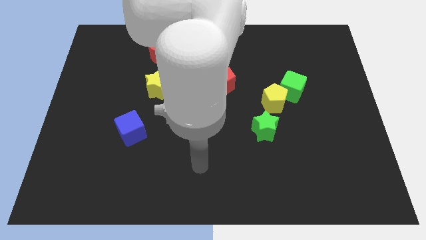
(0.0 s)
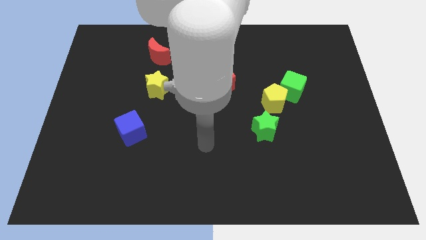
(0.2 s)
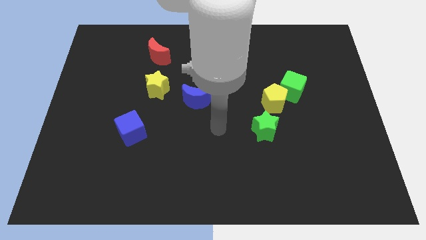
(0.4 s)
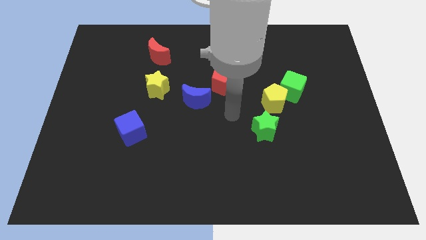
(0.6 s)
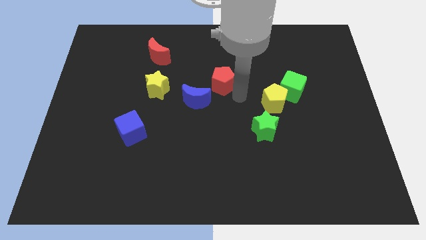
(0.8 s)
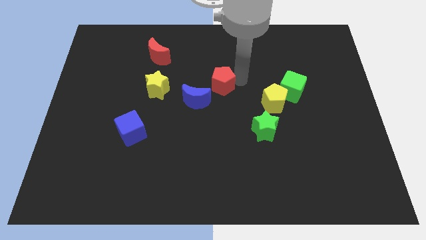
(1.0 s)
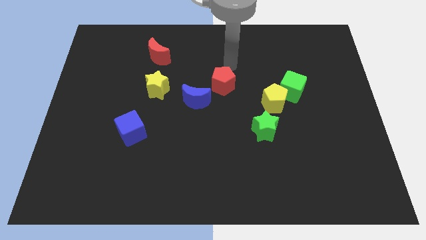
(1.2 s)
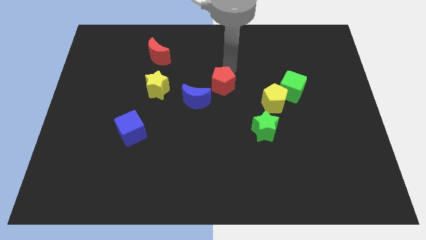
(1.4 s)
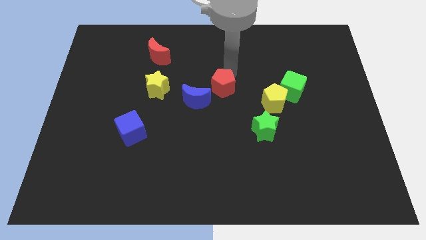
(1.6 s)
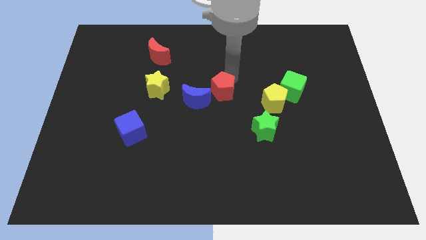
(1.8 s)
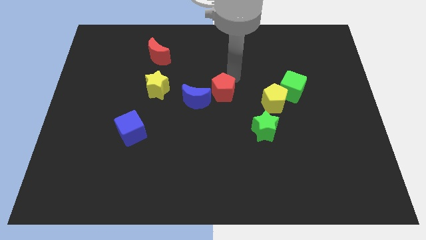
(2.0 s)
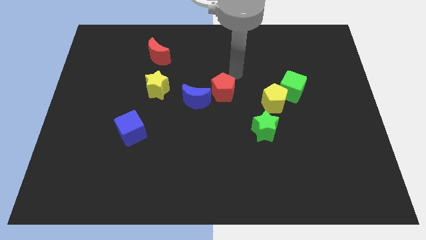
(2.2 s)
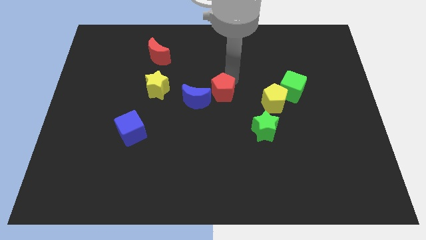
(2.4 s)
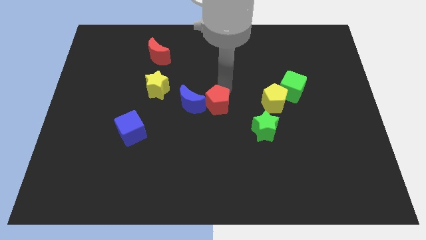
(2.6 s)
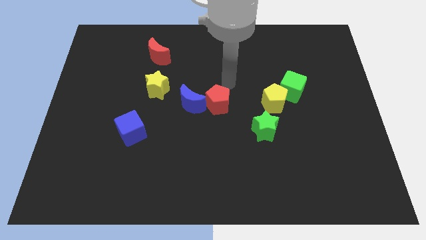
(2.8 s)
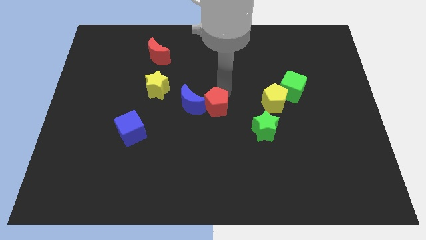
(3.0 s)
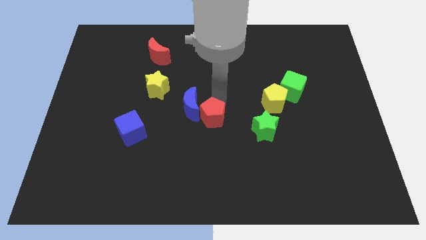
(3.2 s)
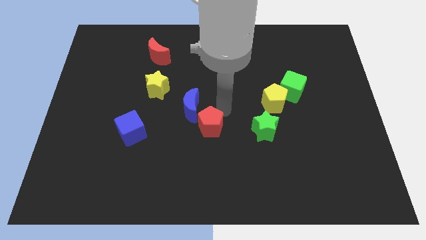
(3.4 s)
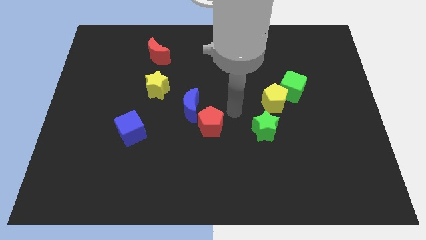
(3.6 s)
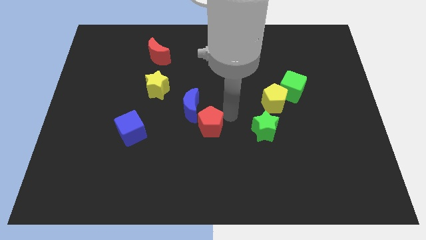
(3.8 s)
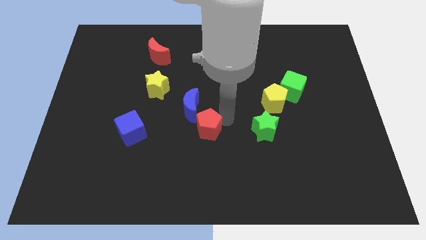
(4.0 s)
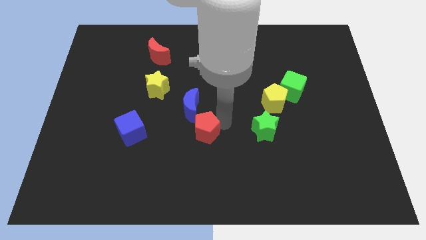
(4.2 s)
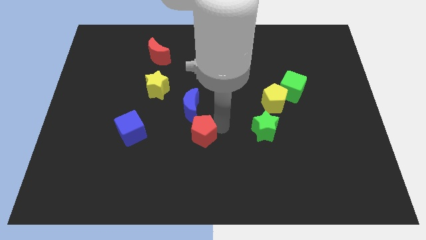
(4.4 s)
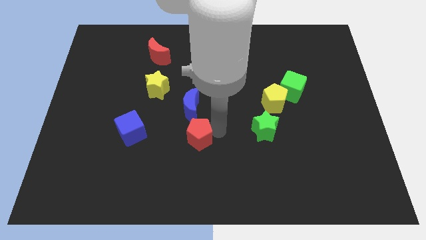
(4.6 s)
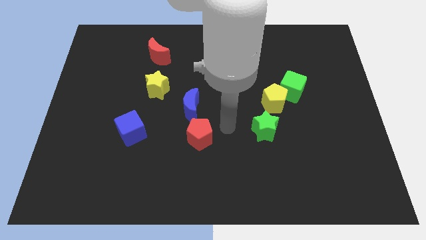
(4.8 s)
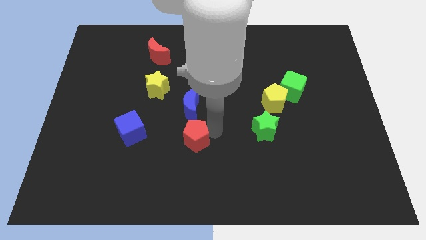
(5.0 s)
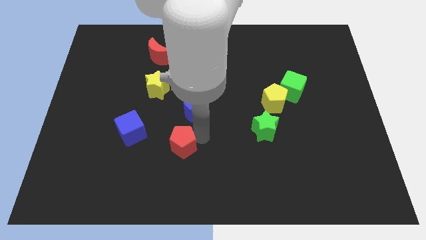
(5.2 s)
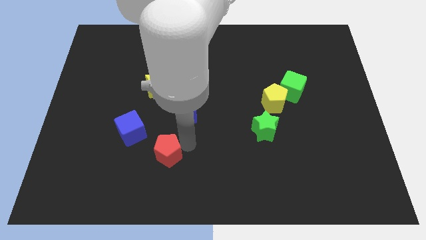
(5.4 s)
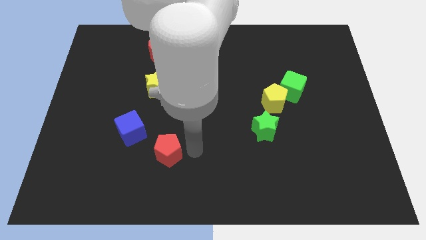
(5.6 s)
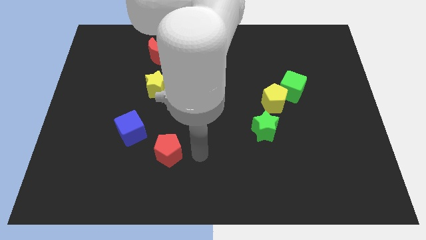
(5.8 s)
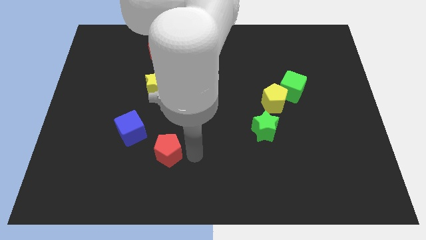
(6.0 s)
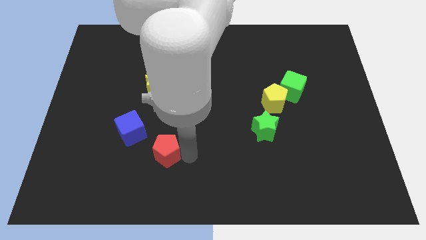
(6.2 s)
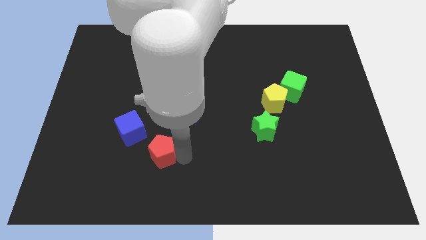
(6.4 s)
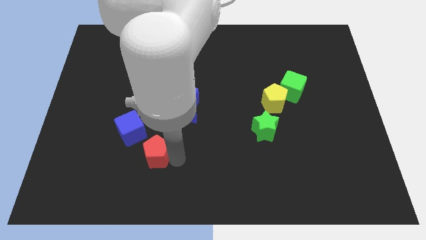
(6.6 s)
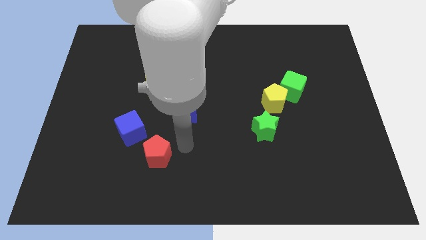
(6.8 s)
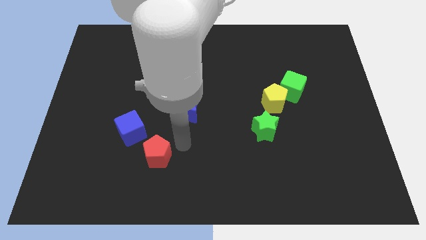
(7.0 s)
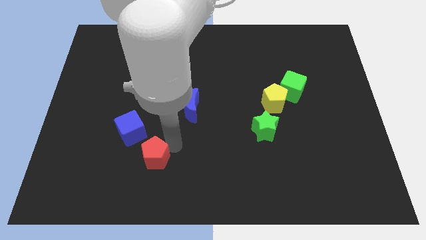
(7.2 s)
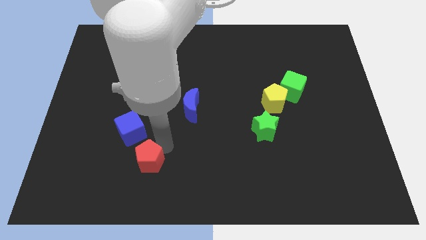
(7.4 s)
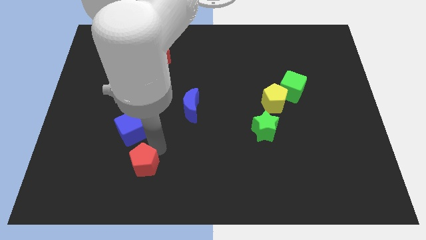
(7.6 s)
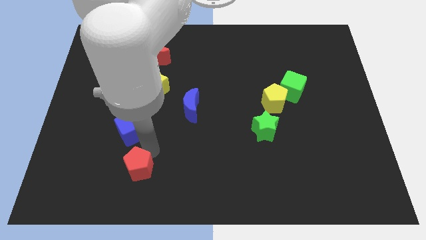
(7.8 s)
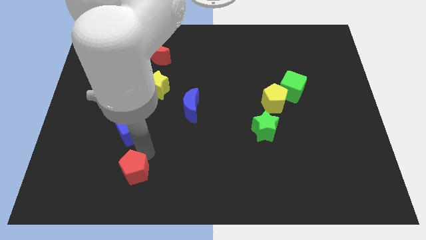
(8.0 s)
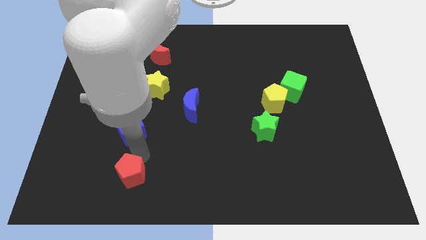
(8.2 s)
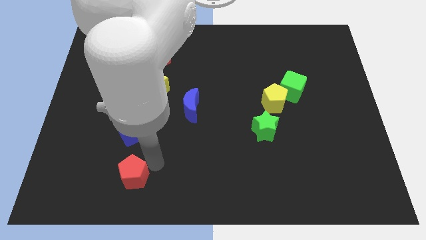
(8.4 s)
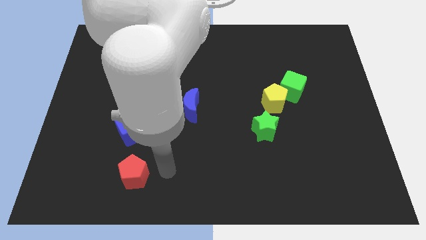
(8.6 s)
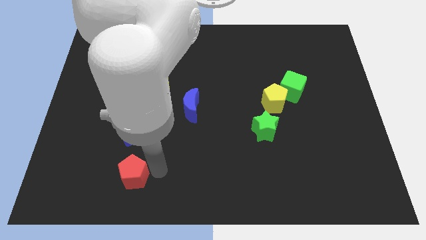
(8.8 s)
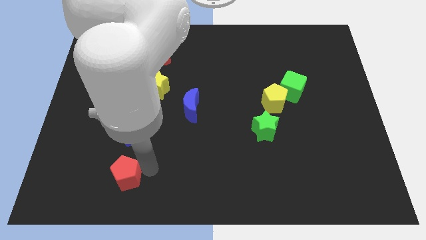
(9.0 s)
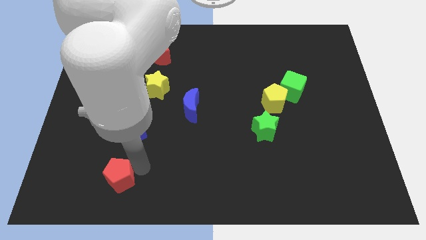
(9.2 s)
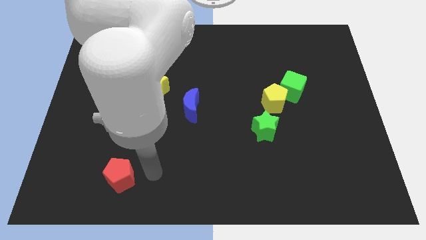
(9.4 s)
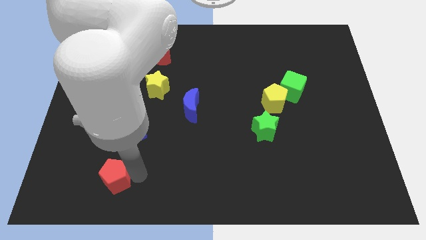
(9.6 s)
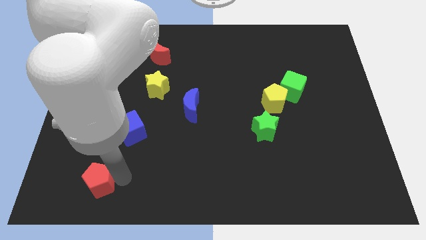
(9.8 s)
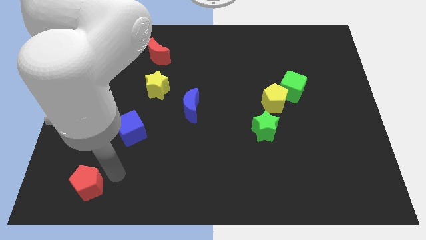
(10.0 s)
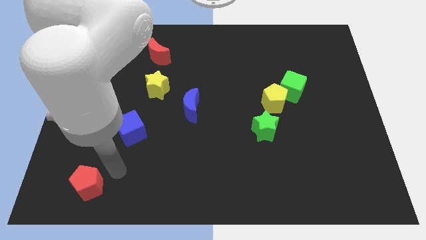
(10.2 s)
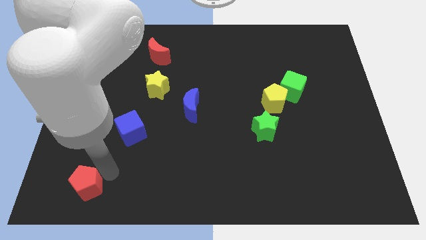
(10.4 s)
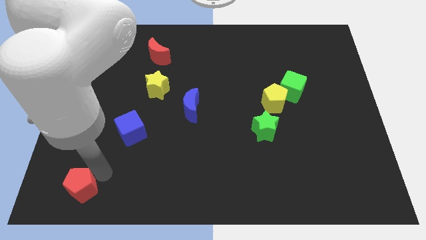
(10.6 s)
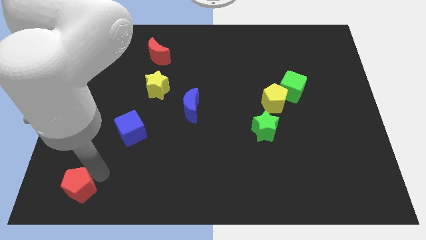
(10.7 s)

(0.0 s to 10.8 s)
move the red pentagon to the bottom left corner

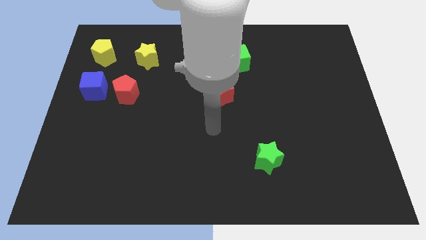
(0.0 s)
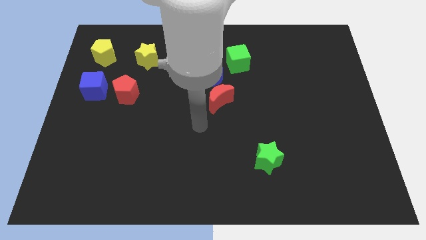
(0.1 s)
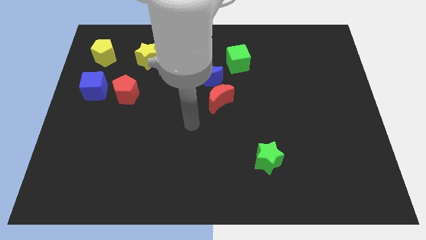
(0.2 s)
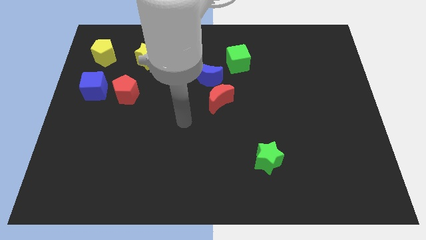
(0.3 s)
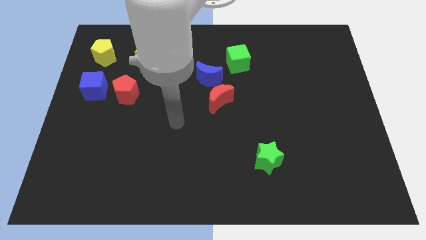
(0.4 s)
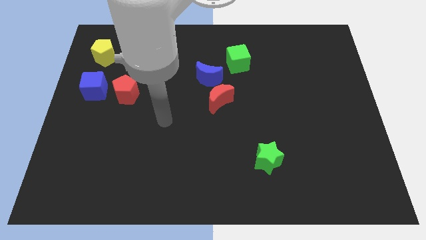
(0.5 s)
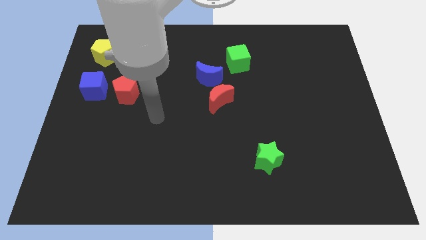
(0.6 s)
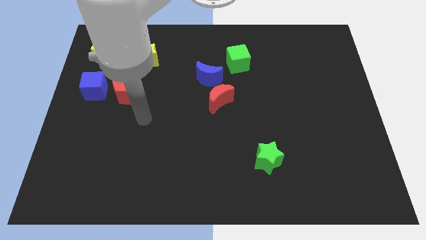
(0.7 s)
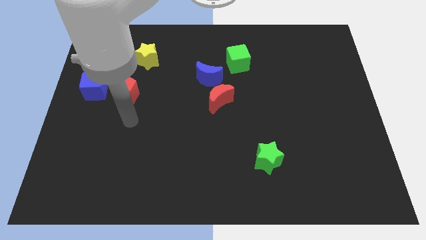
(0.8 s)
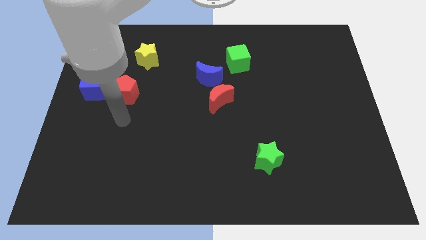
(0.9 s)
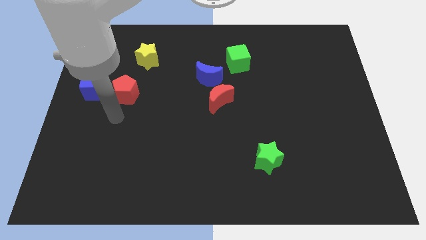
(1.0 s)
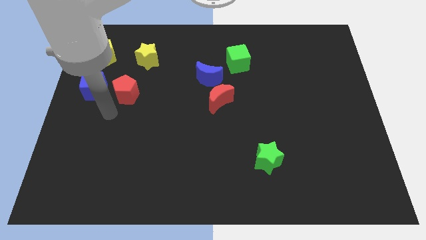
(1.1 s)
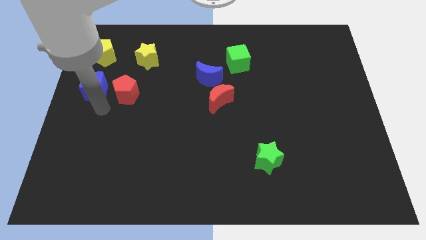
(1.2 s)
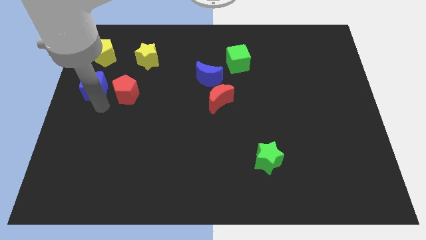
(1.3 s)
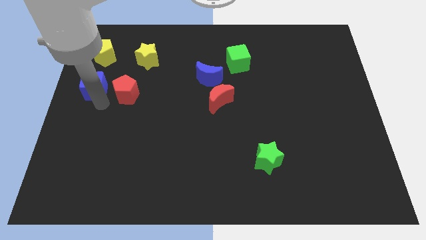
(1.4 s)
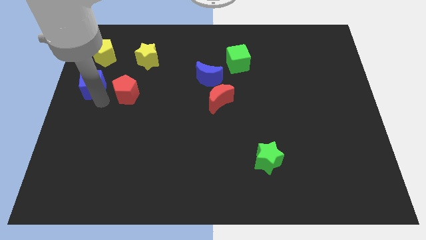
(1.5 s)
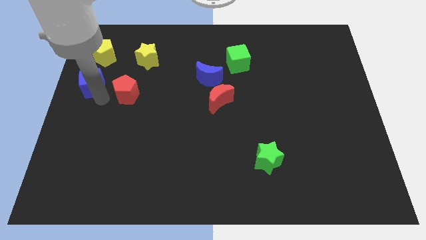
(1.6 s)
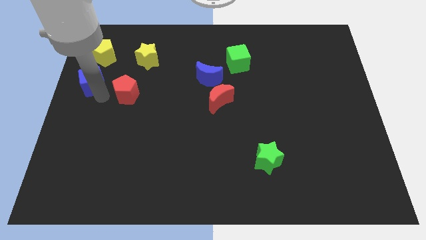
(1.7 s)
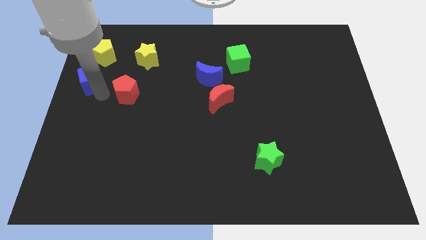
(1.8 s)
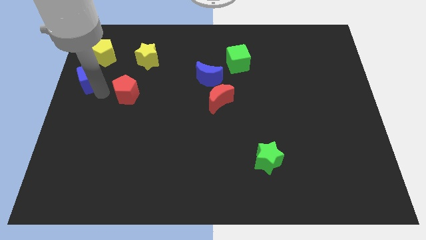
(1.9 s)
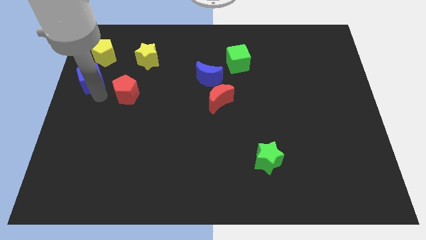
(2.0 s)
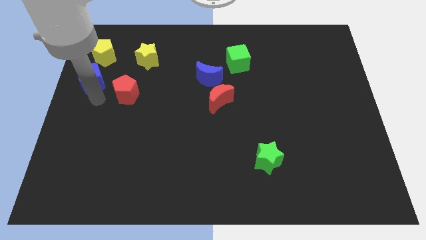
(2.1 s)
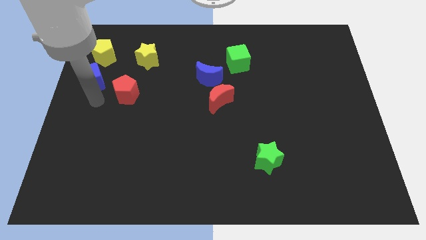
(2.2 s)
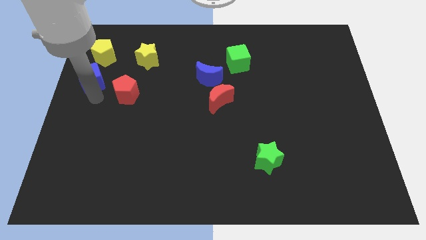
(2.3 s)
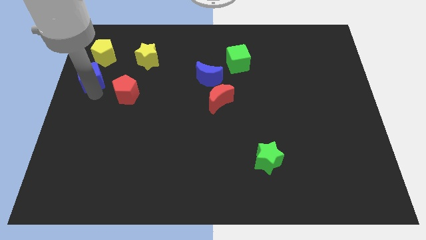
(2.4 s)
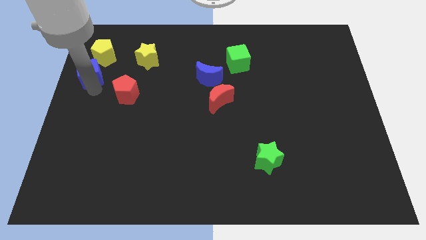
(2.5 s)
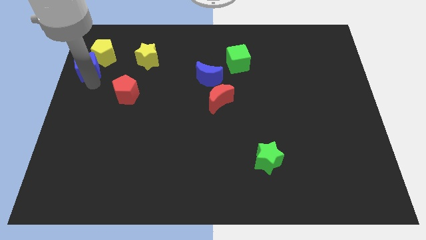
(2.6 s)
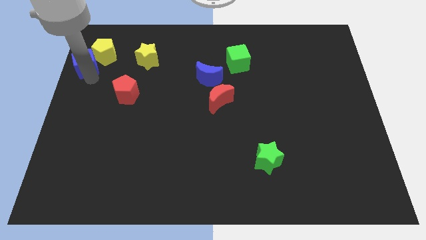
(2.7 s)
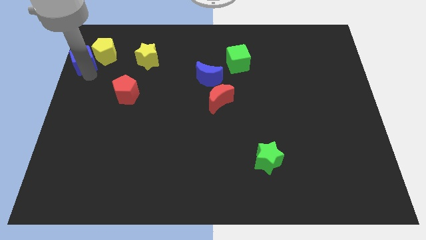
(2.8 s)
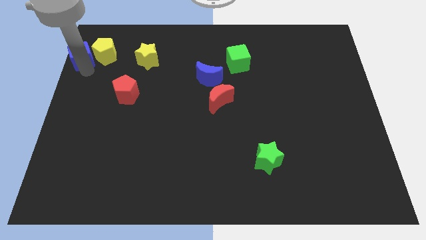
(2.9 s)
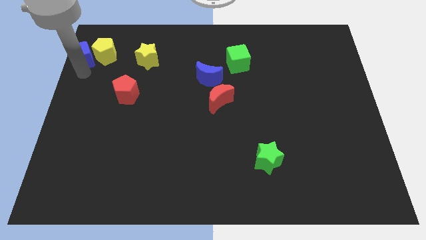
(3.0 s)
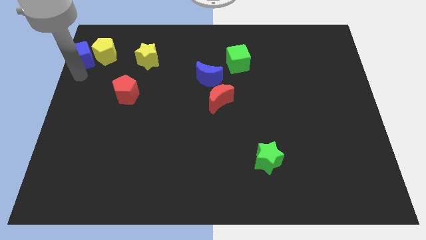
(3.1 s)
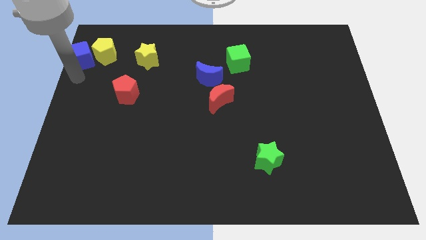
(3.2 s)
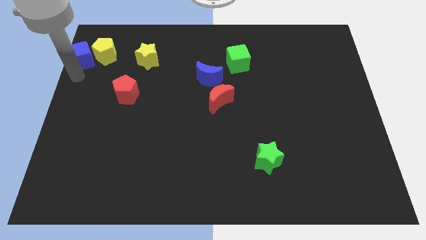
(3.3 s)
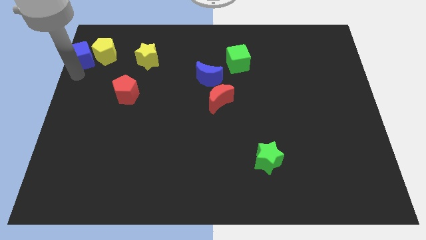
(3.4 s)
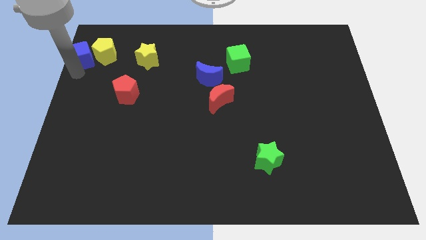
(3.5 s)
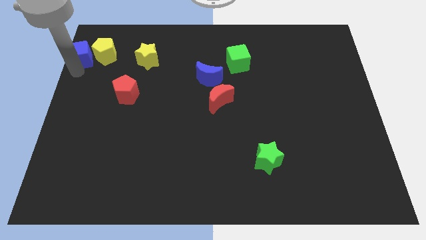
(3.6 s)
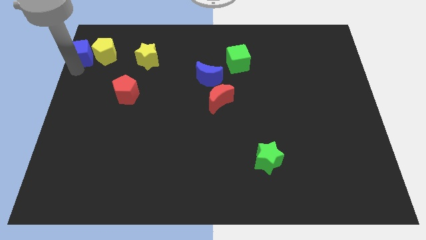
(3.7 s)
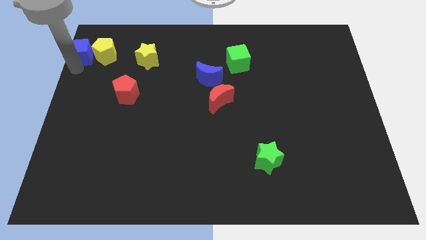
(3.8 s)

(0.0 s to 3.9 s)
put the blue cube to the top left of the board
